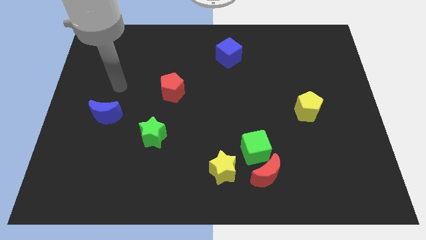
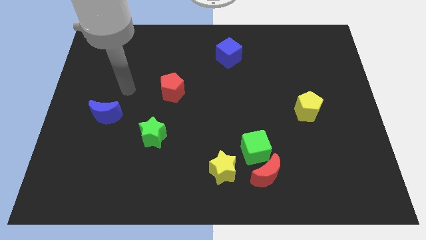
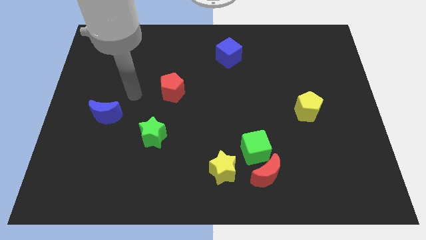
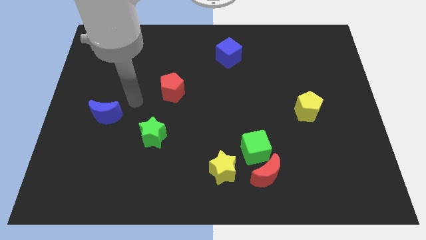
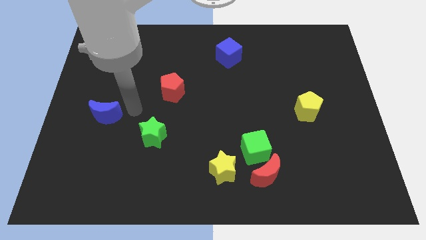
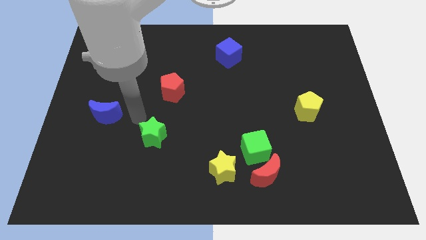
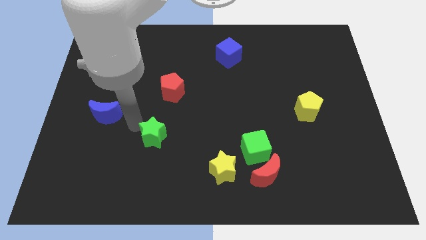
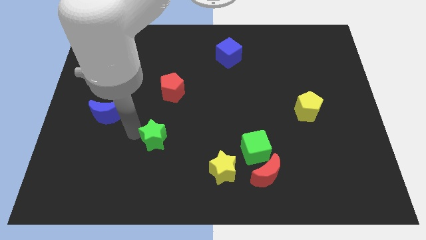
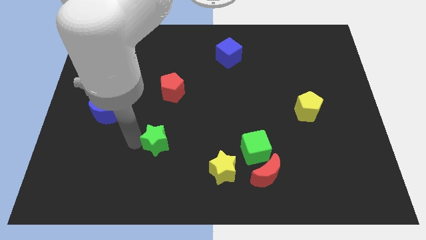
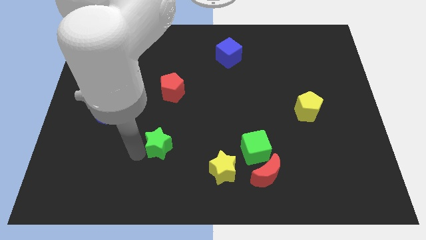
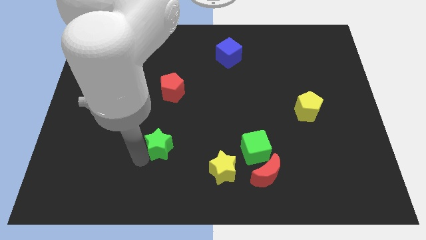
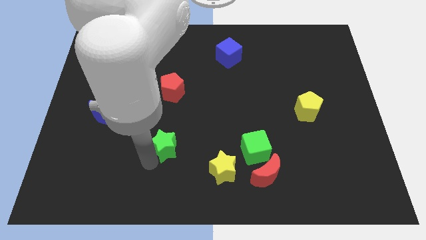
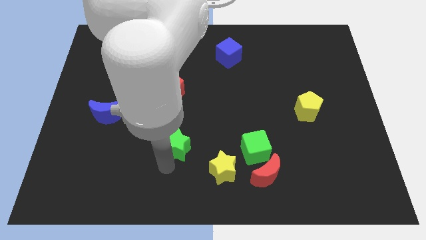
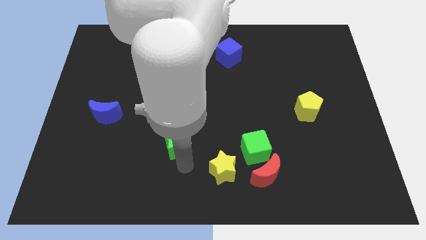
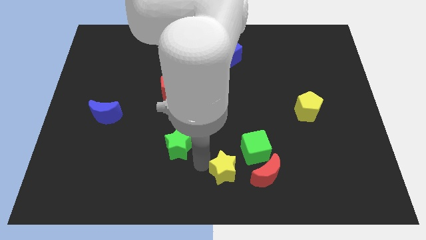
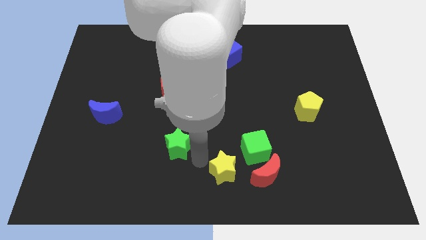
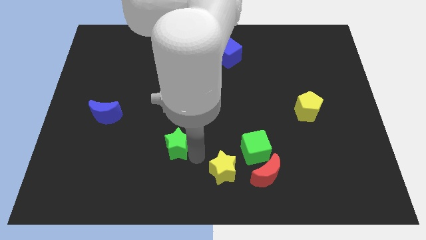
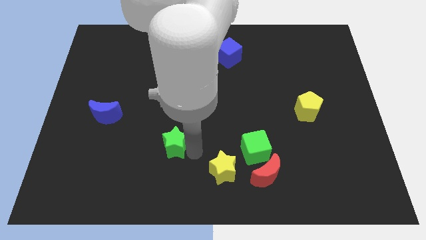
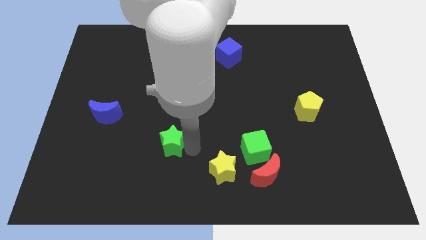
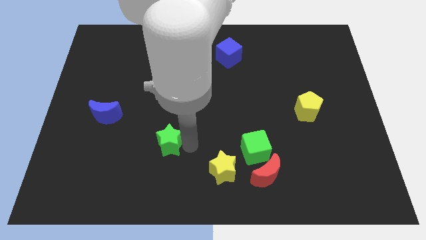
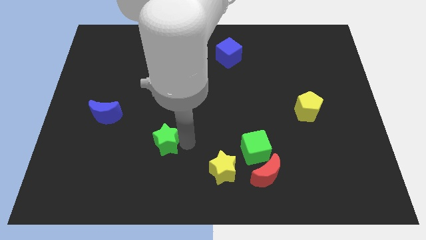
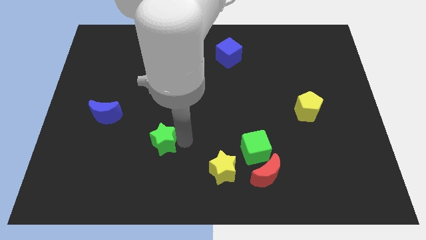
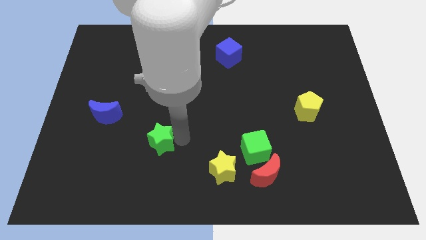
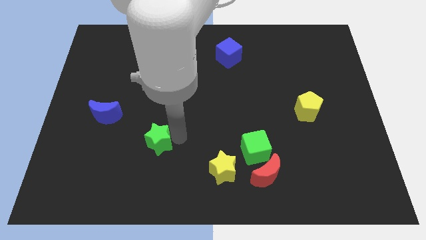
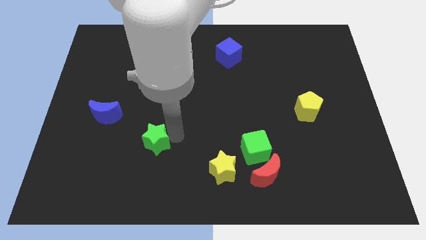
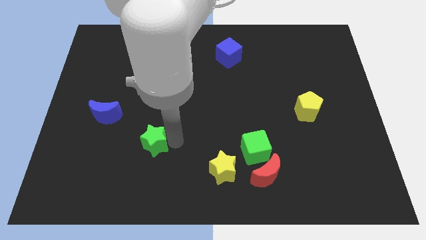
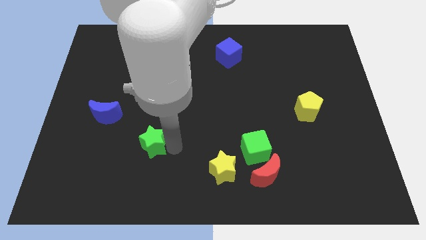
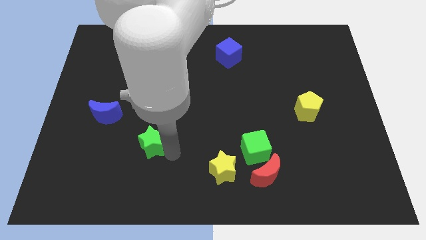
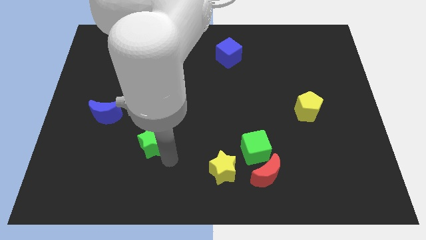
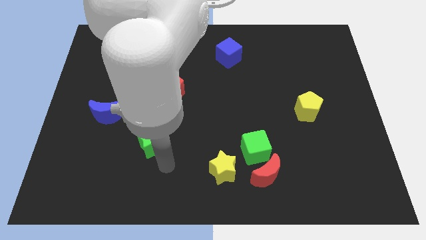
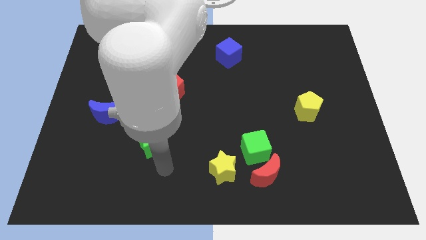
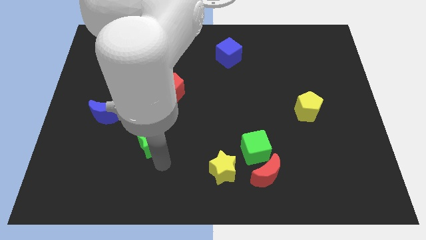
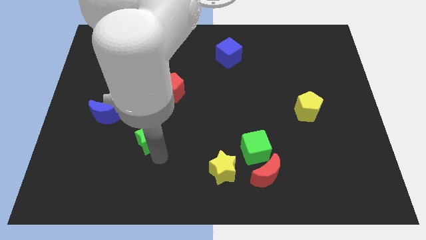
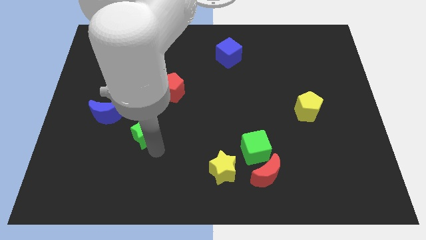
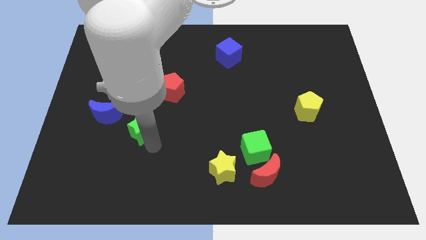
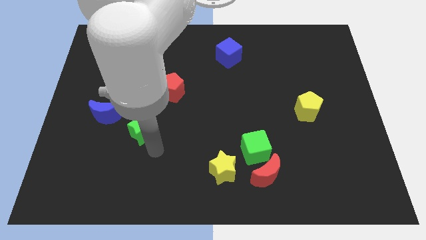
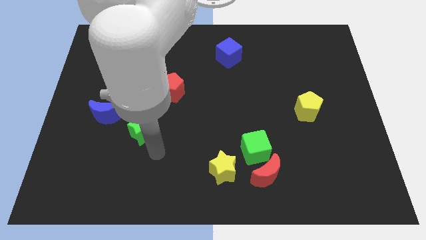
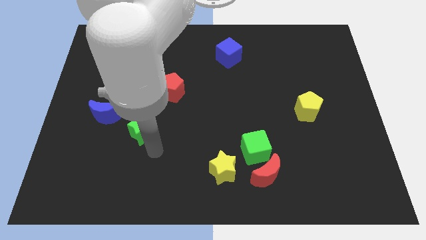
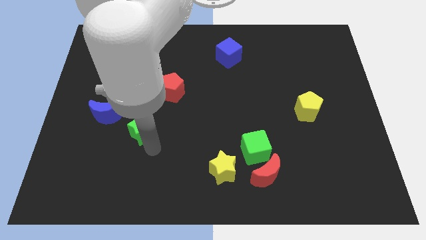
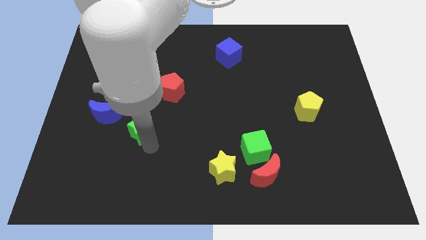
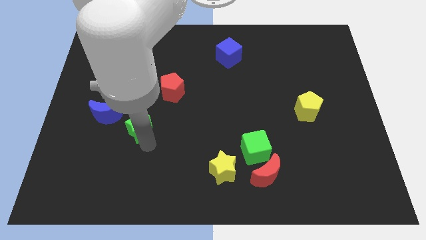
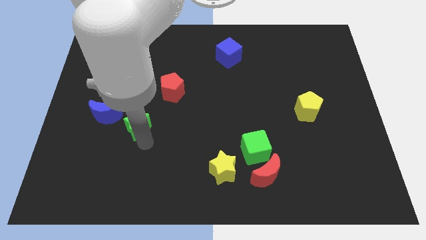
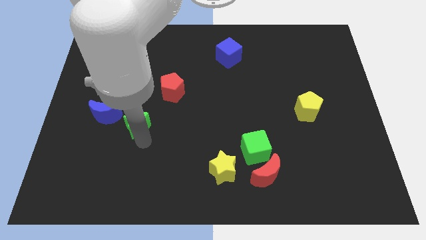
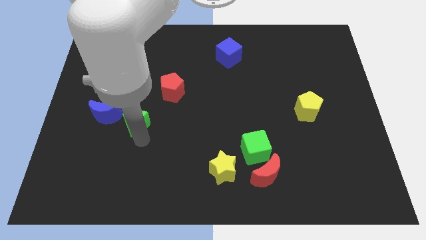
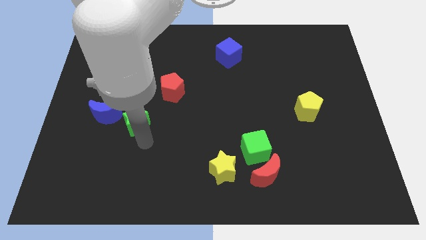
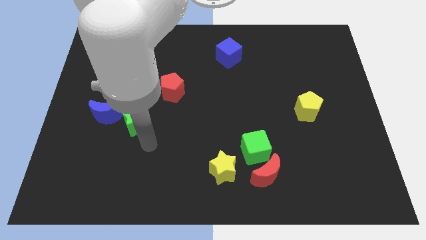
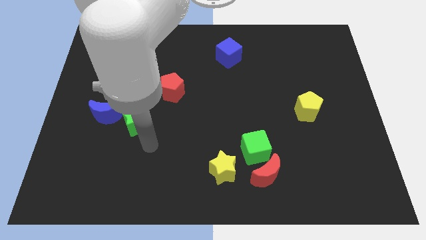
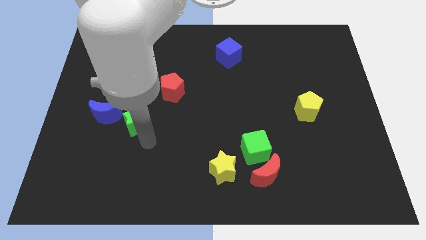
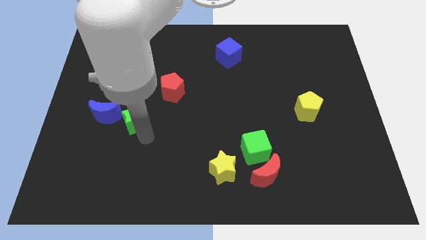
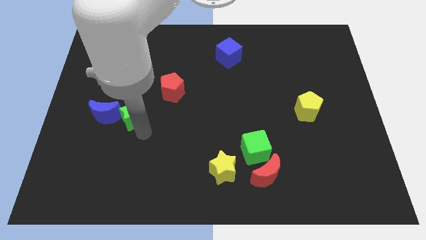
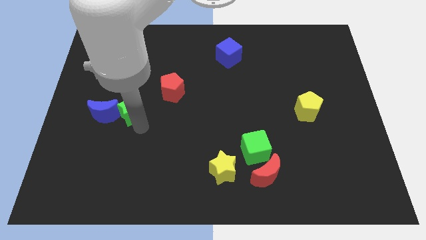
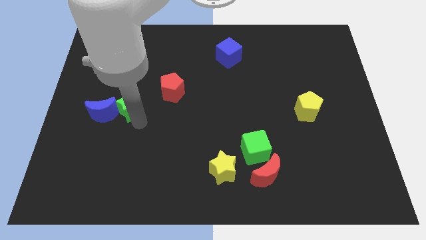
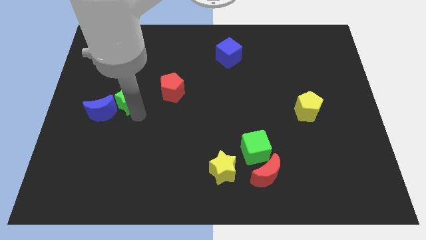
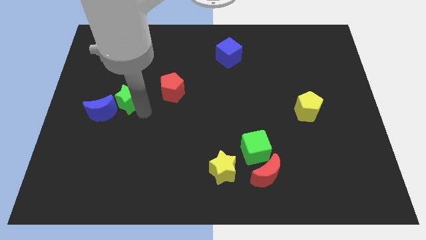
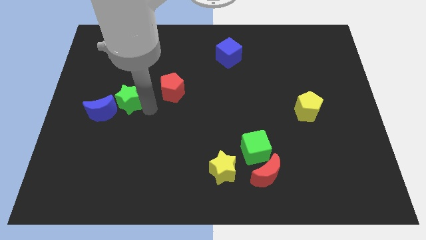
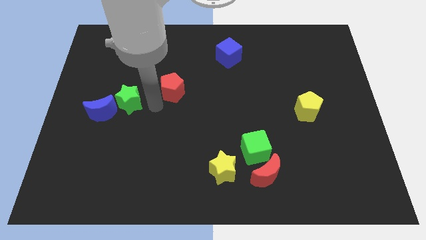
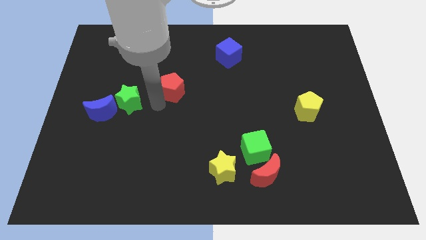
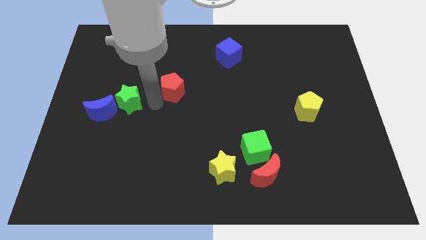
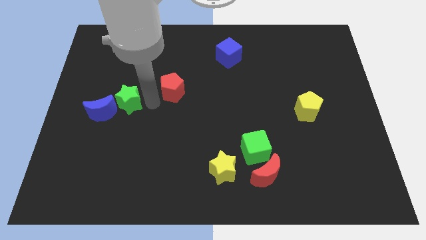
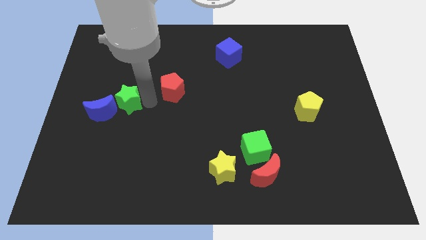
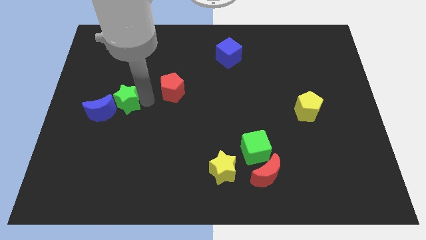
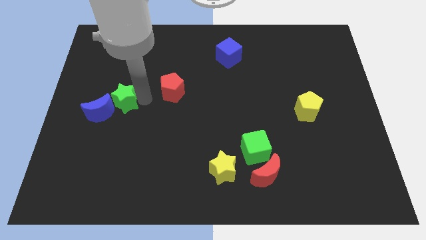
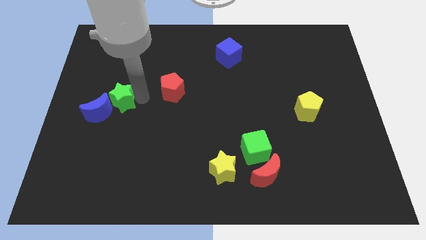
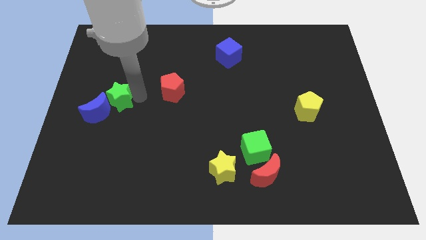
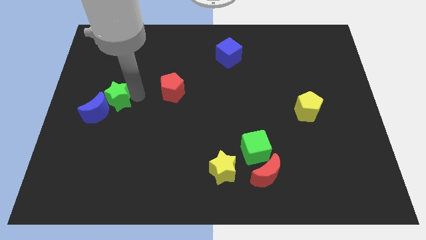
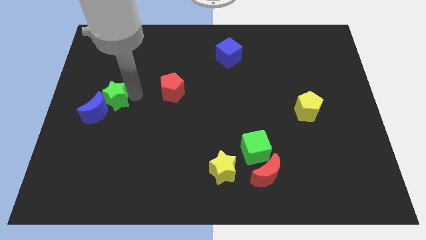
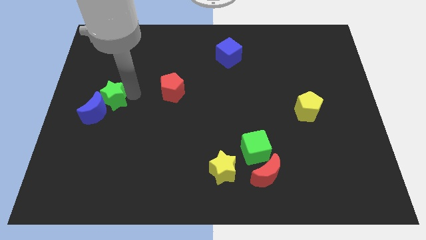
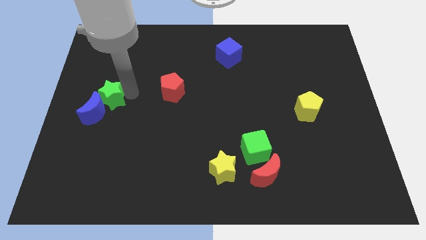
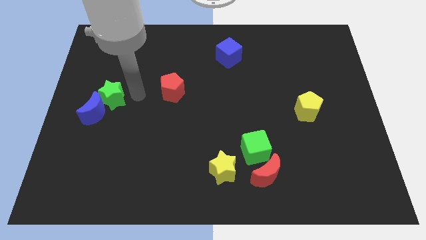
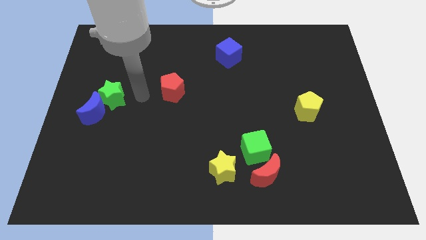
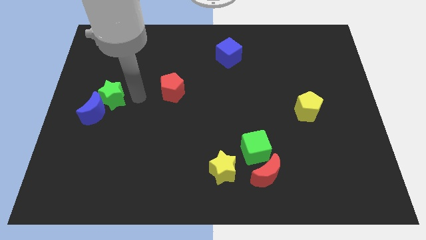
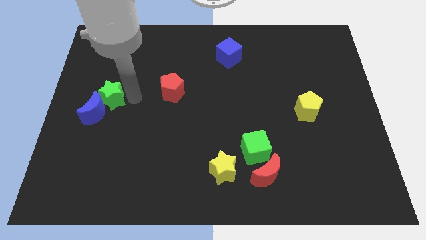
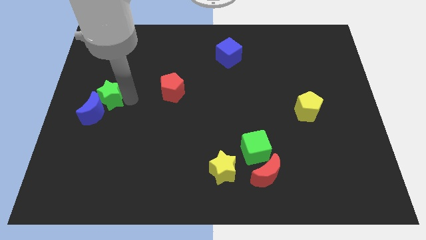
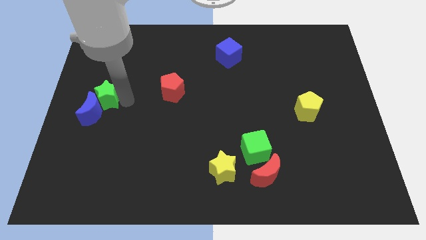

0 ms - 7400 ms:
put the green star to the center left
